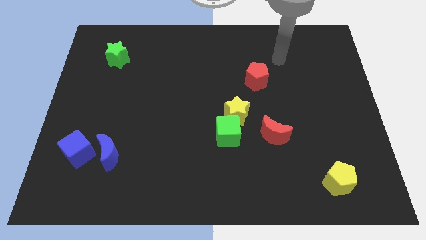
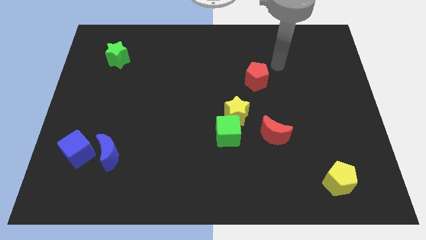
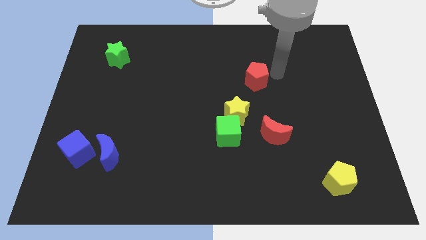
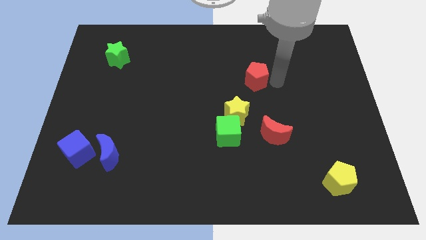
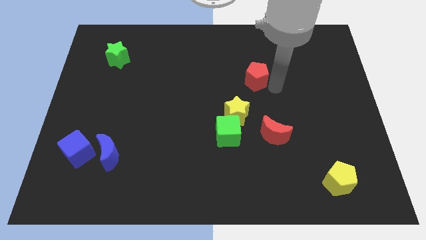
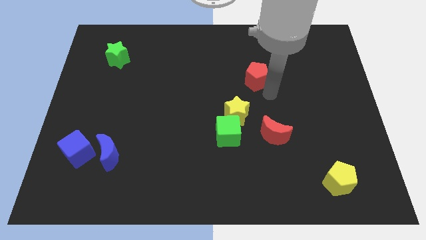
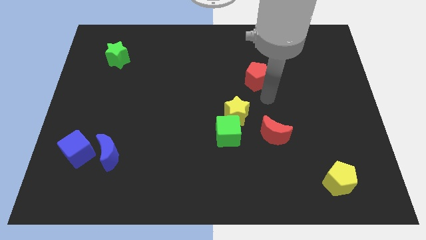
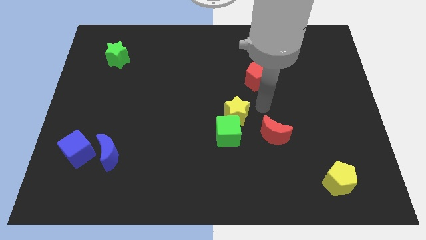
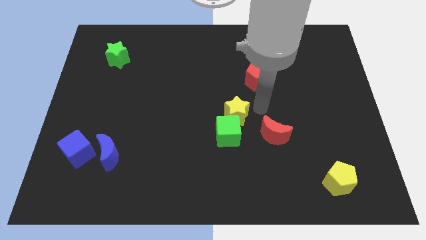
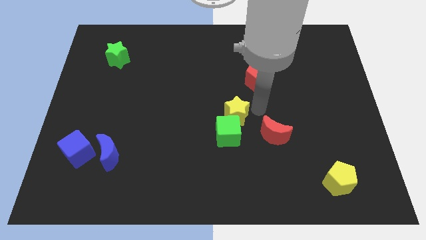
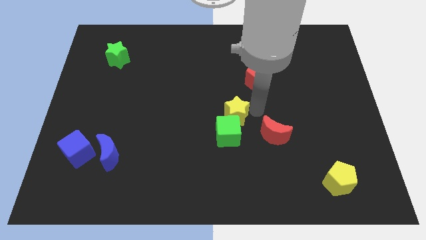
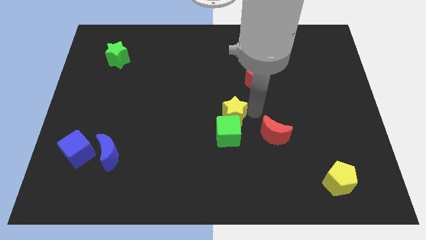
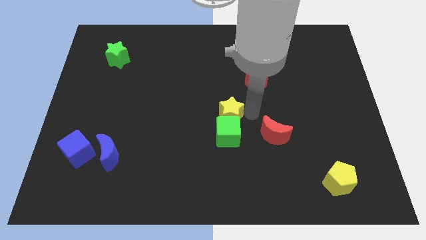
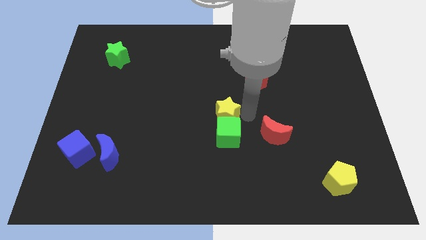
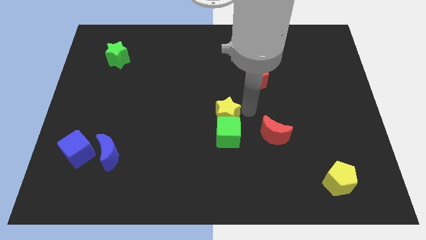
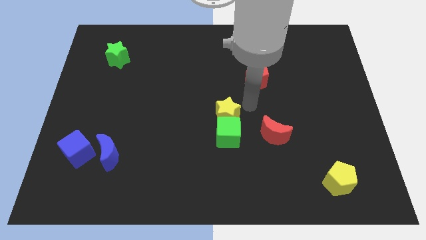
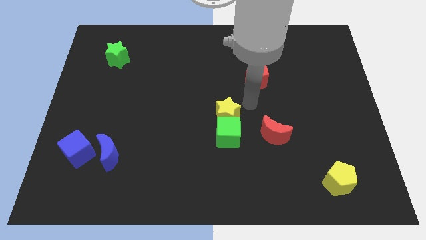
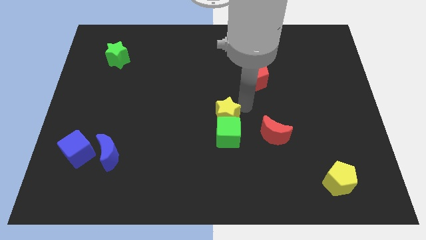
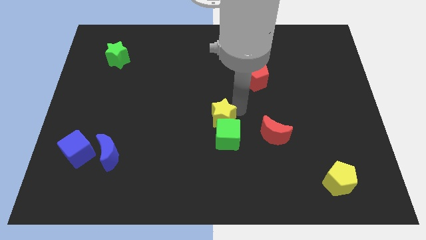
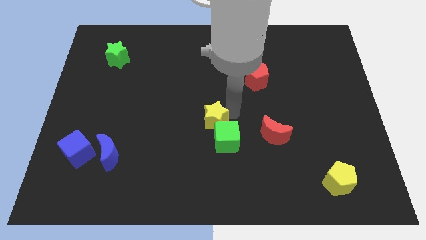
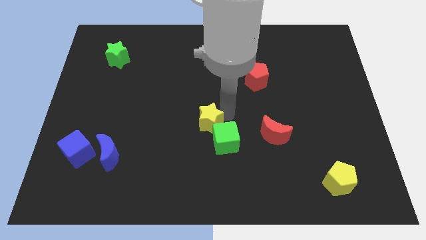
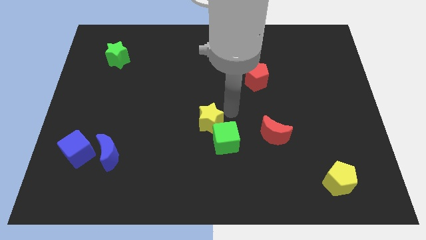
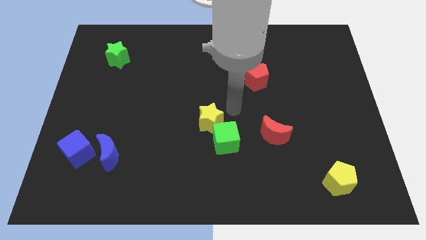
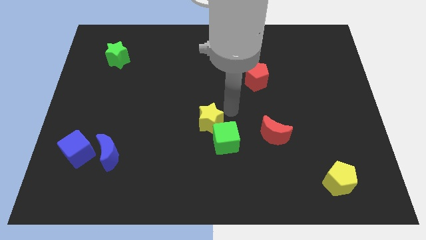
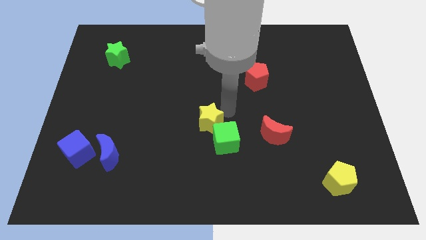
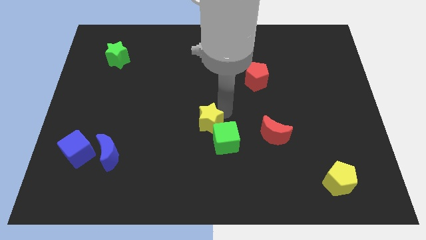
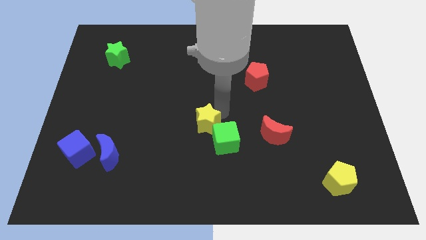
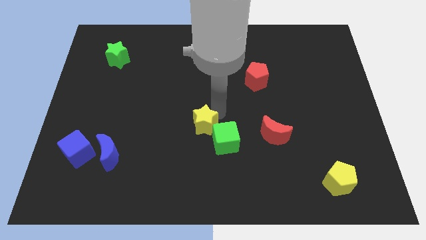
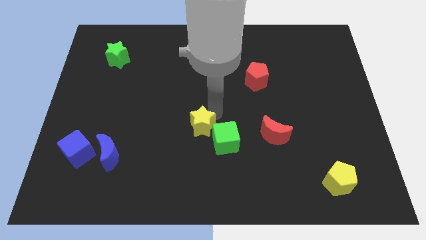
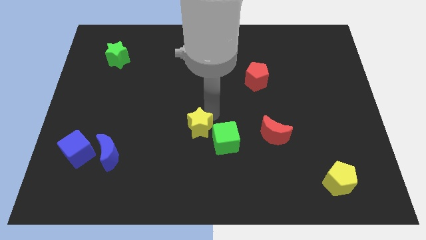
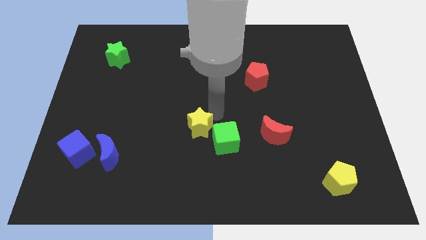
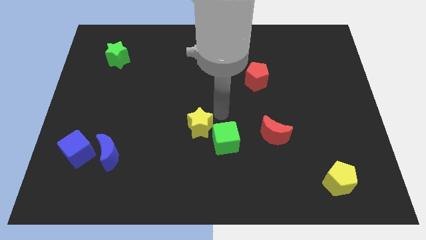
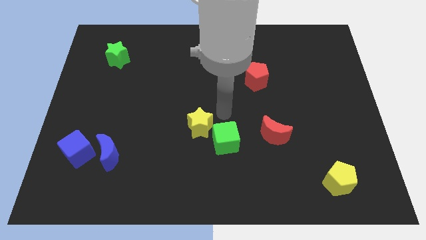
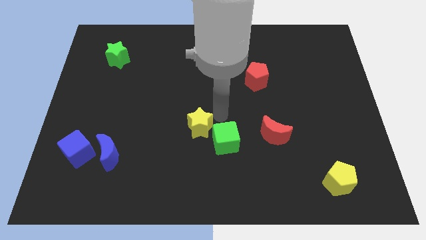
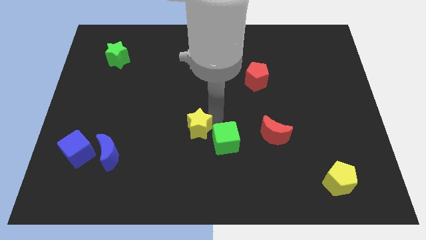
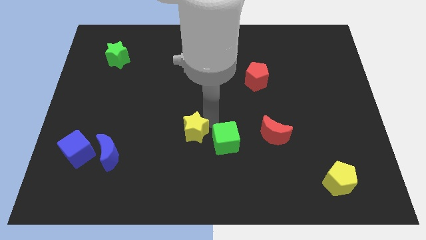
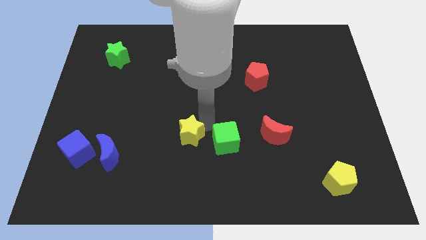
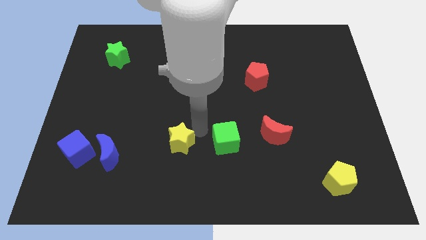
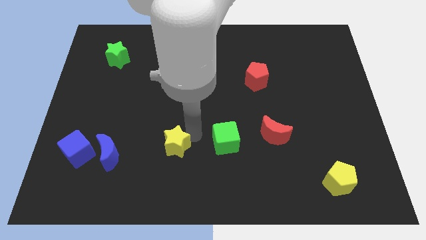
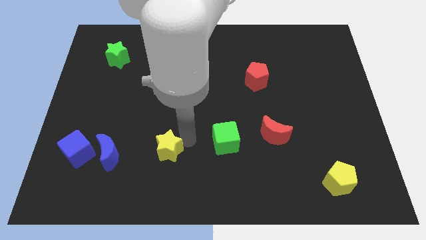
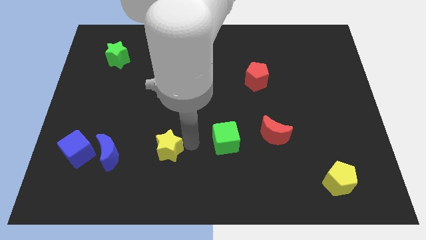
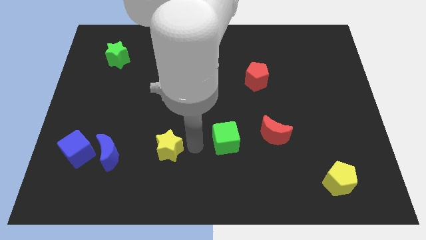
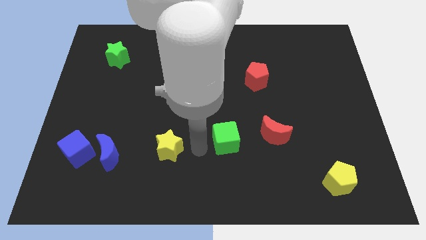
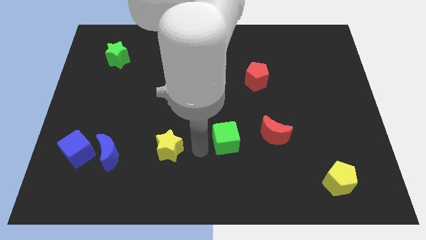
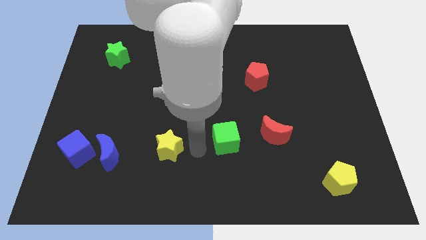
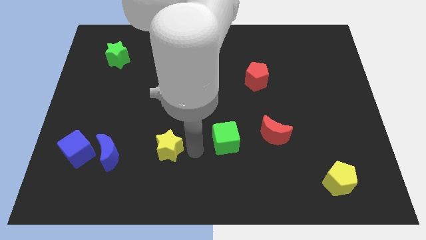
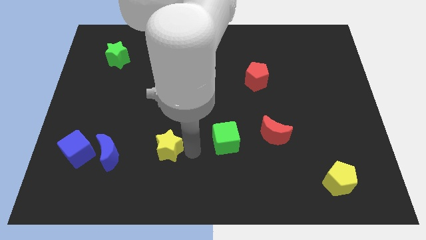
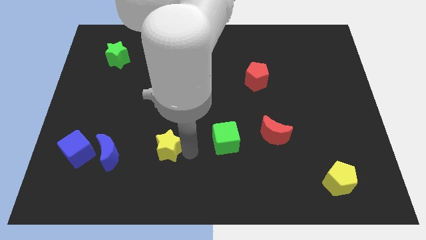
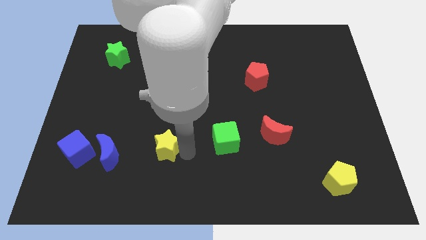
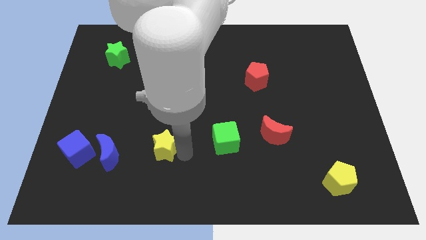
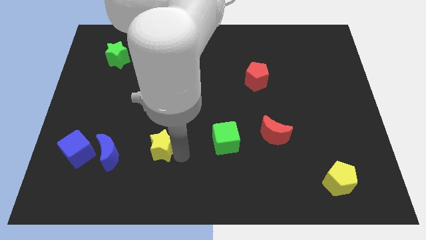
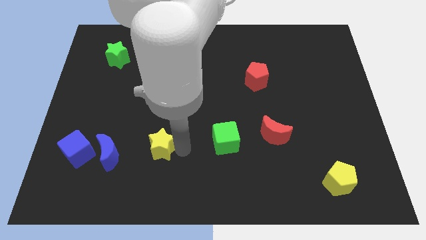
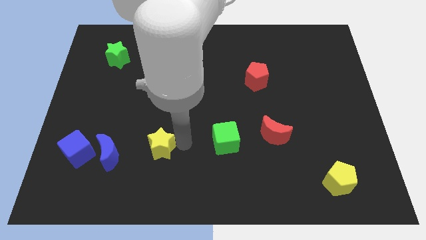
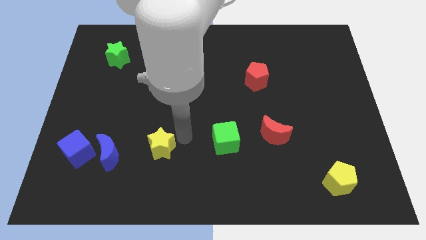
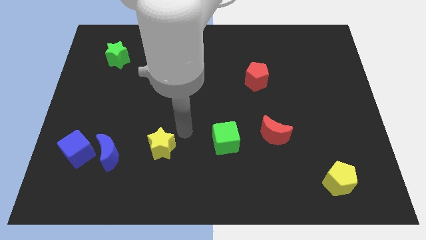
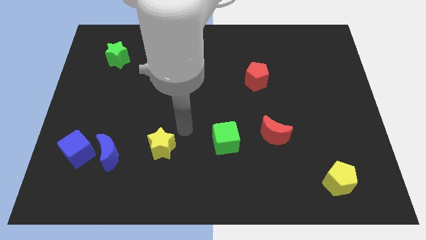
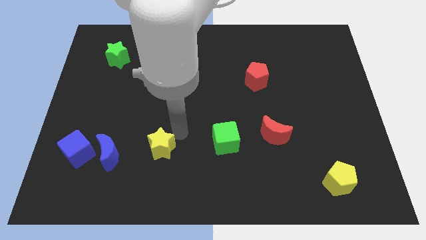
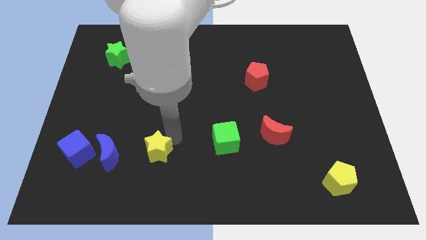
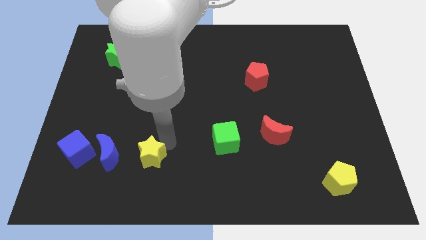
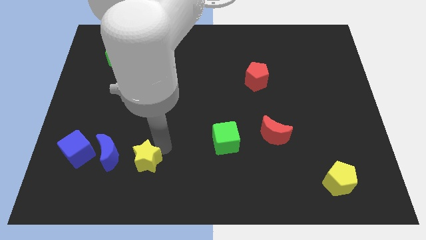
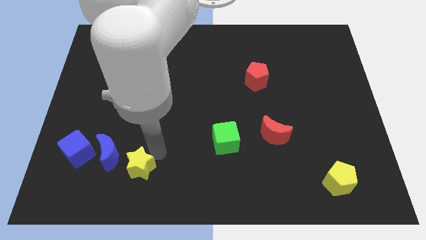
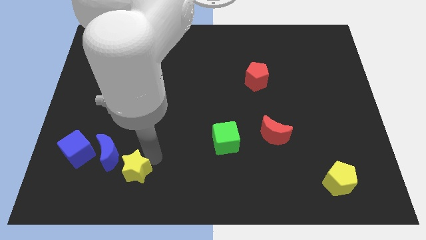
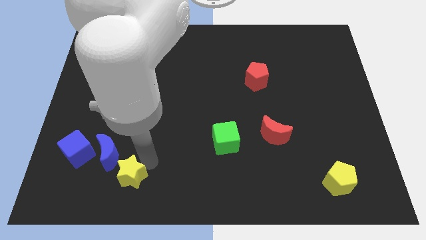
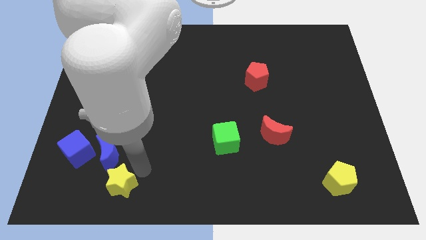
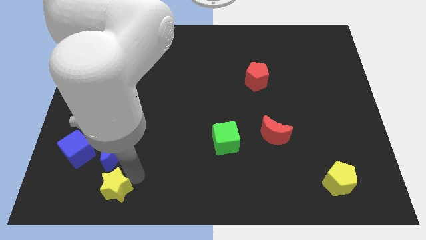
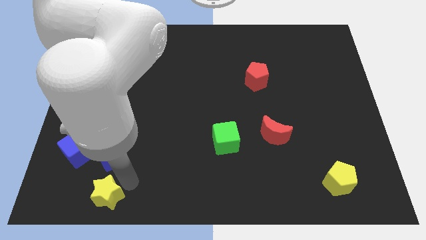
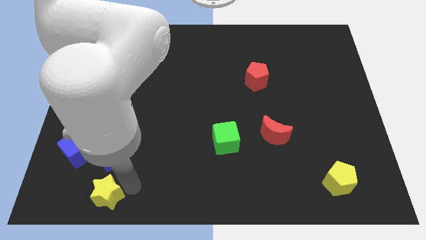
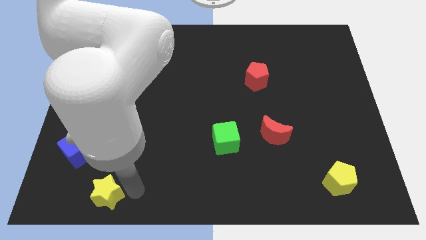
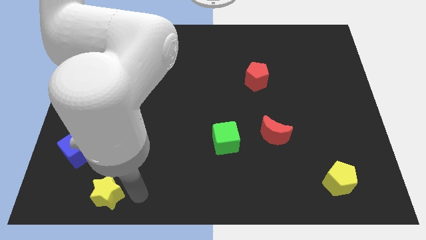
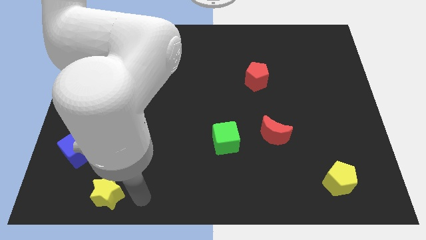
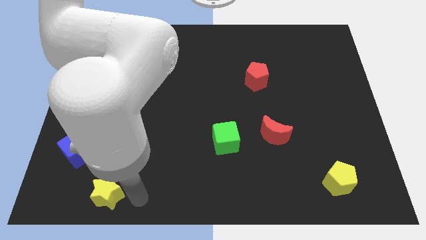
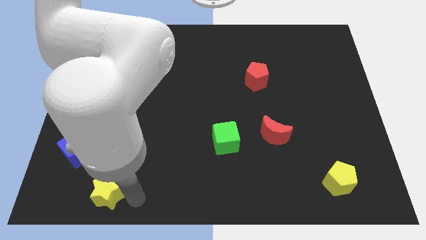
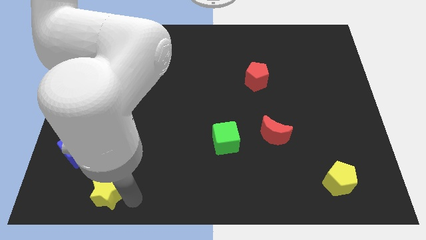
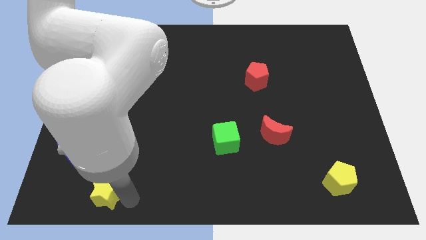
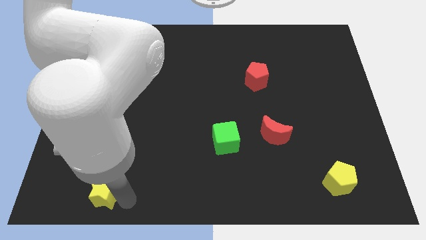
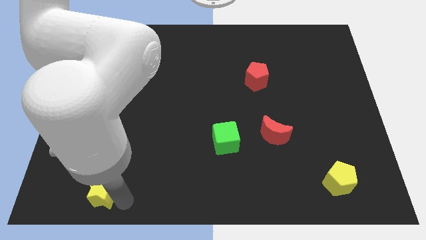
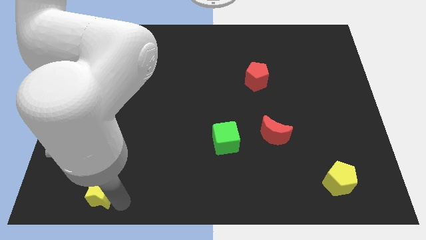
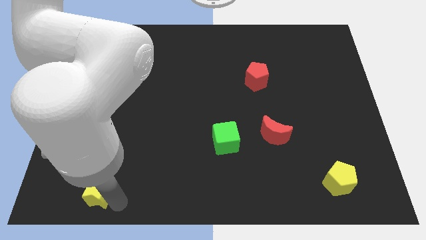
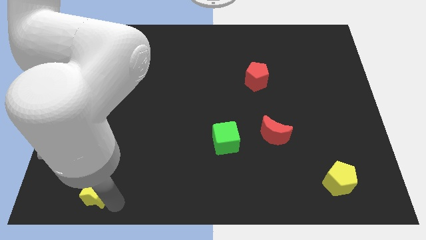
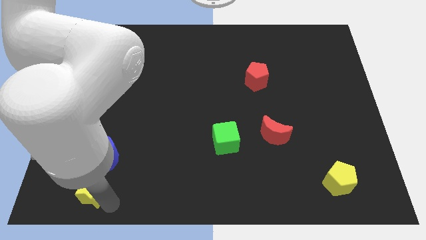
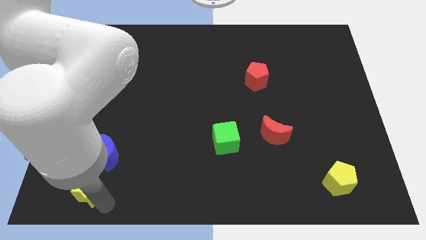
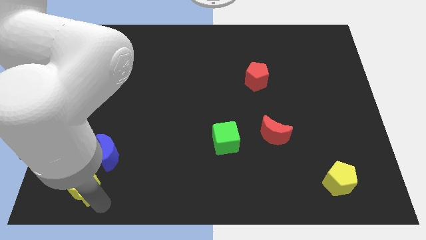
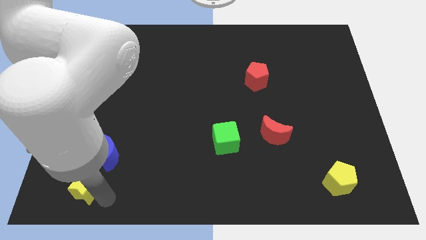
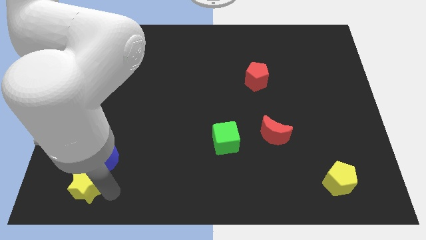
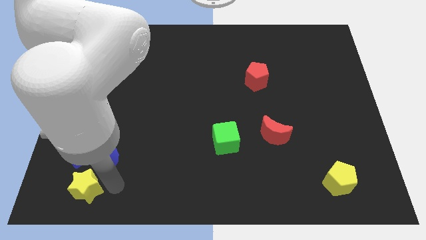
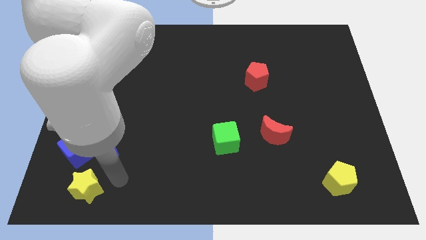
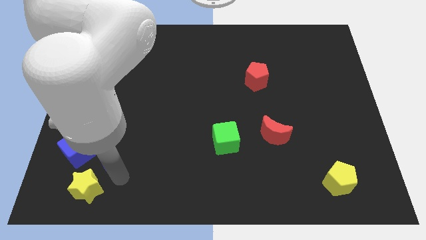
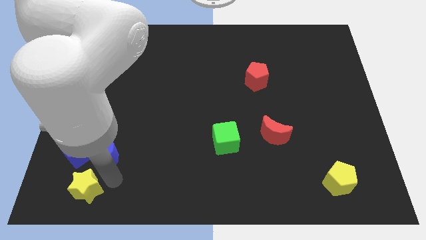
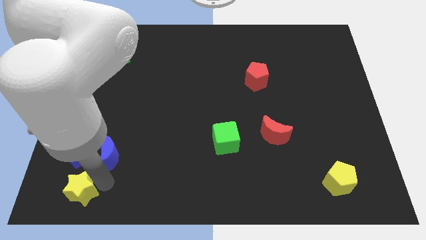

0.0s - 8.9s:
put the yellow star to the bottom left
